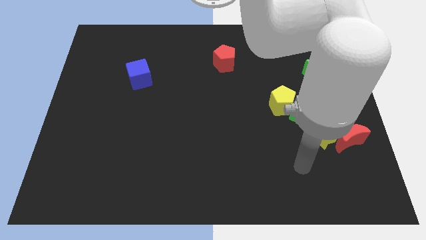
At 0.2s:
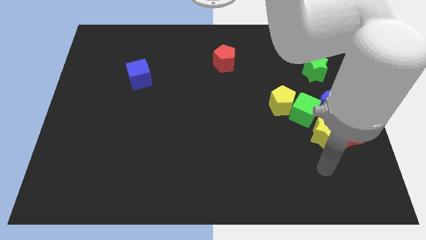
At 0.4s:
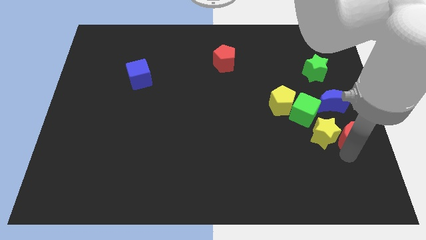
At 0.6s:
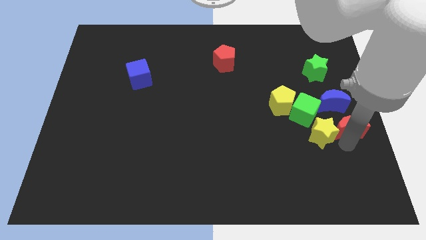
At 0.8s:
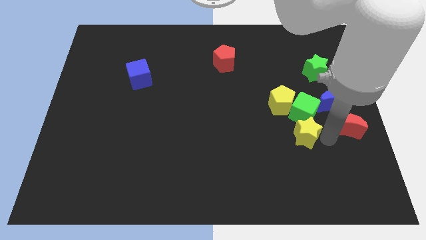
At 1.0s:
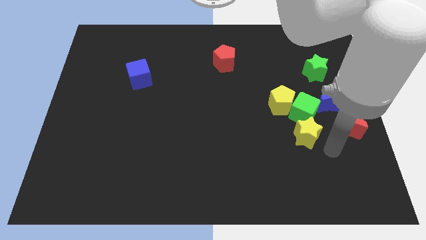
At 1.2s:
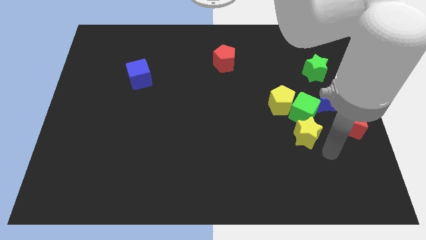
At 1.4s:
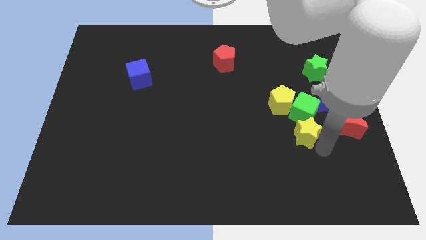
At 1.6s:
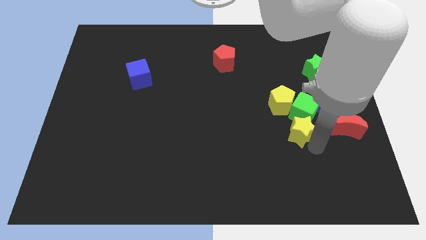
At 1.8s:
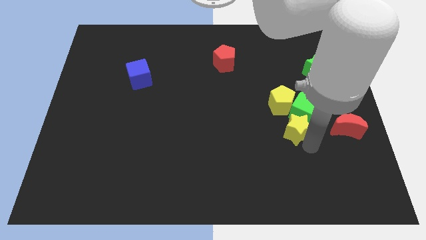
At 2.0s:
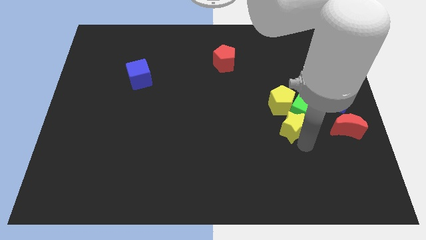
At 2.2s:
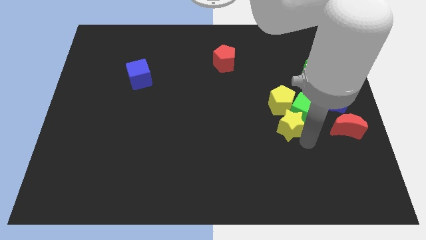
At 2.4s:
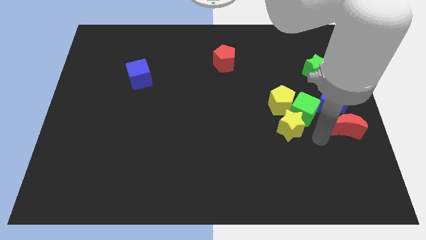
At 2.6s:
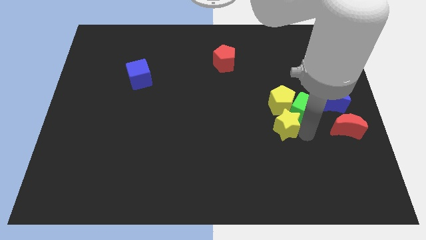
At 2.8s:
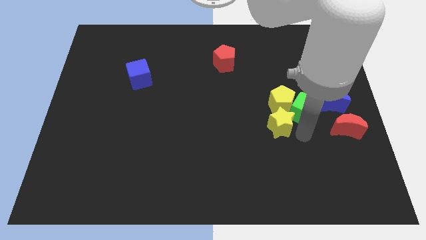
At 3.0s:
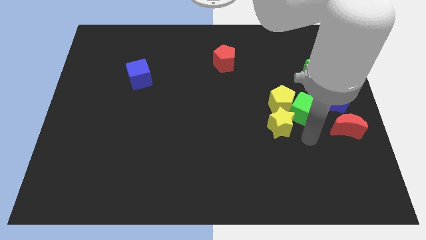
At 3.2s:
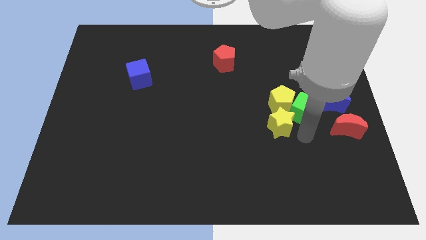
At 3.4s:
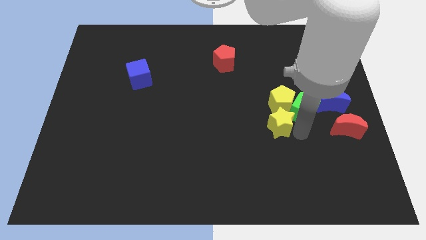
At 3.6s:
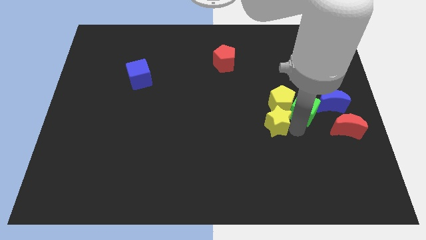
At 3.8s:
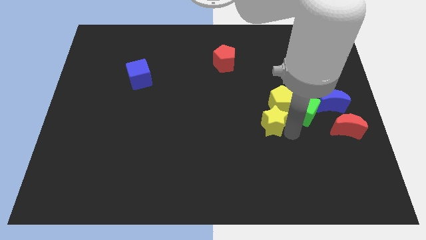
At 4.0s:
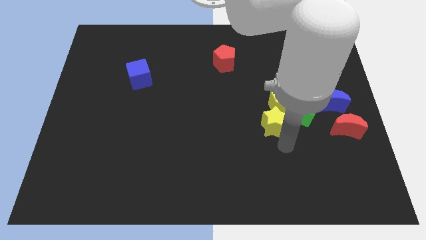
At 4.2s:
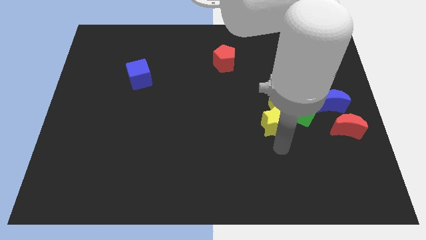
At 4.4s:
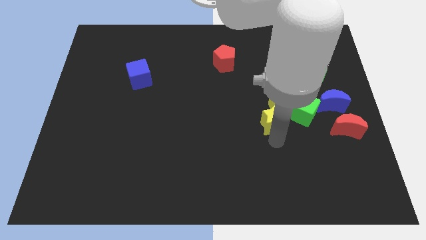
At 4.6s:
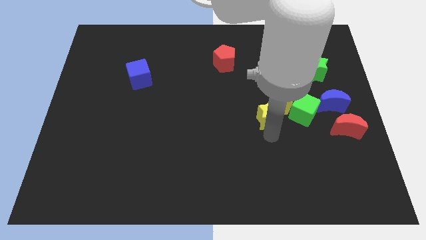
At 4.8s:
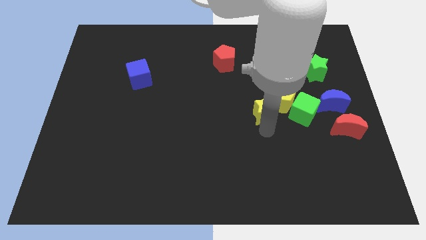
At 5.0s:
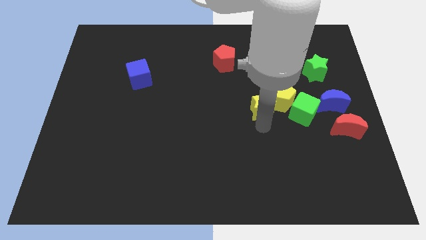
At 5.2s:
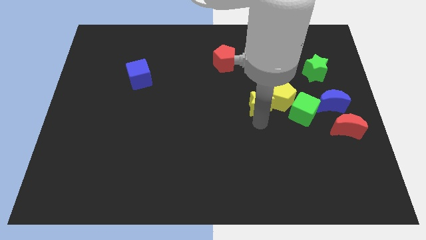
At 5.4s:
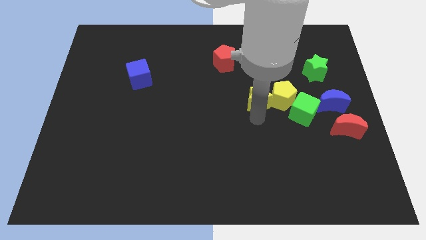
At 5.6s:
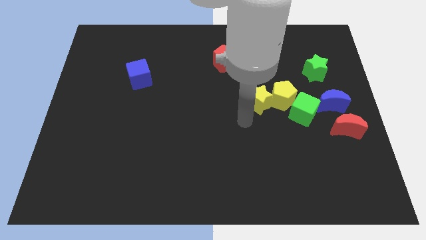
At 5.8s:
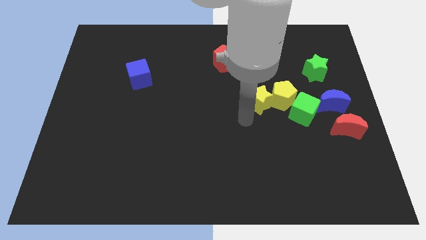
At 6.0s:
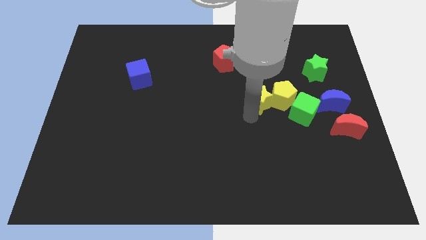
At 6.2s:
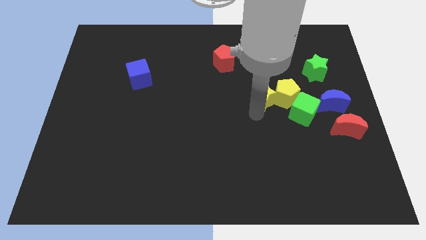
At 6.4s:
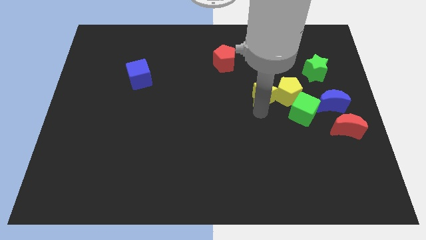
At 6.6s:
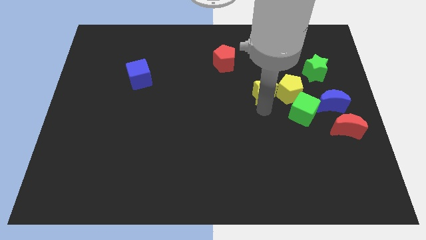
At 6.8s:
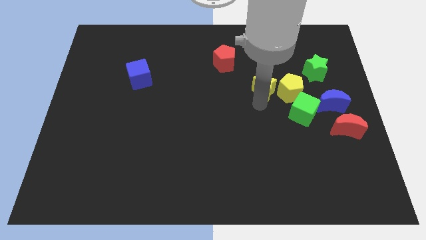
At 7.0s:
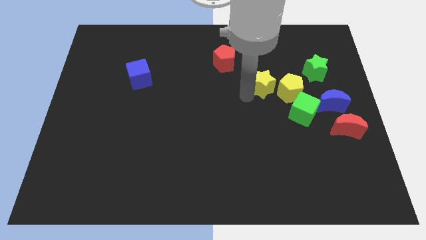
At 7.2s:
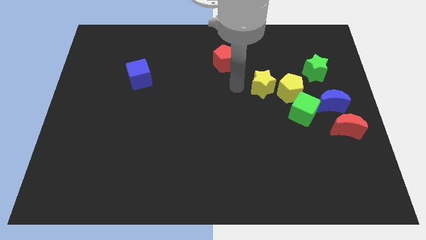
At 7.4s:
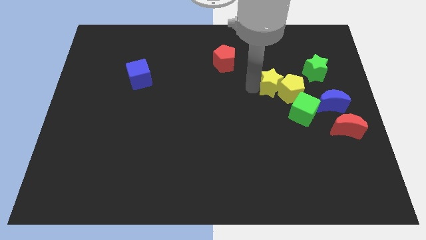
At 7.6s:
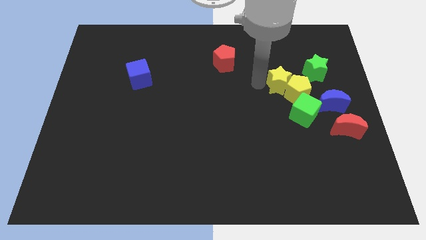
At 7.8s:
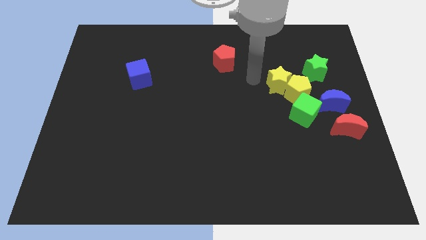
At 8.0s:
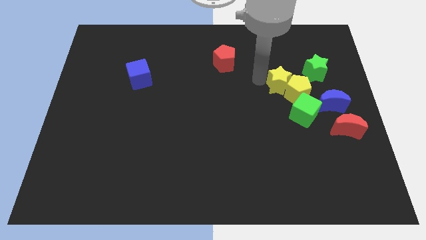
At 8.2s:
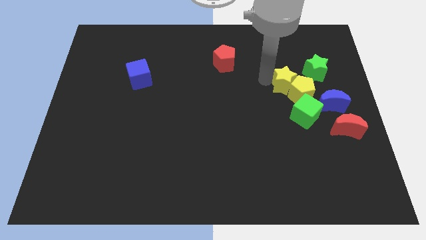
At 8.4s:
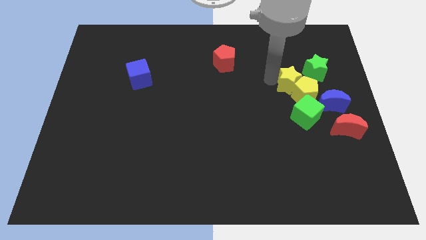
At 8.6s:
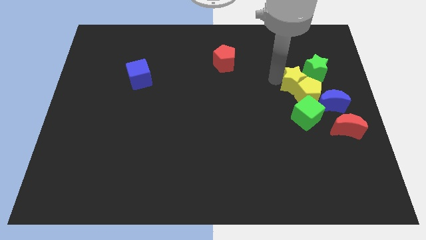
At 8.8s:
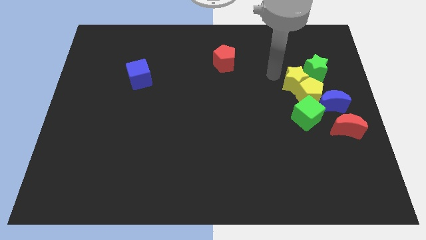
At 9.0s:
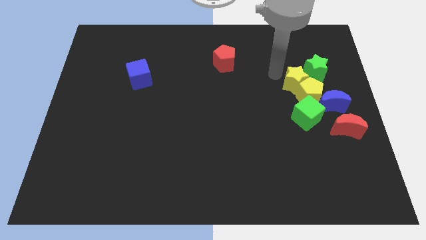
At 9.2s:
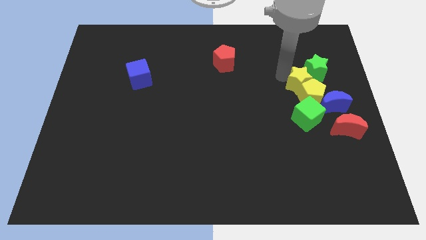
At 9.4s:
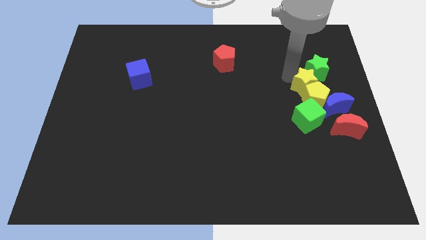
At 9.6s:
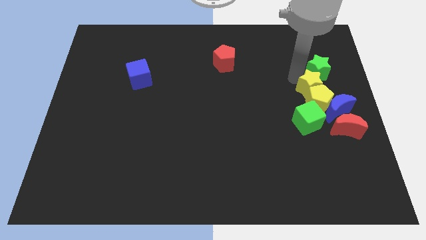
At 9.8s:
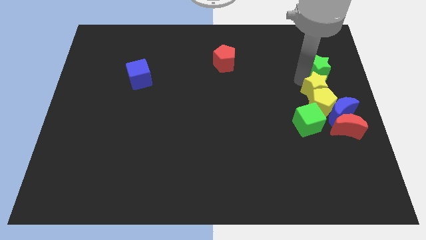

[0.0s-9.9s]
push the yellow star to the top right of the green cube

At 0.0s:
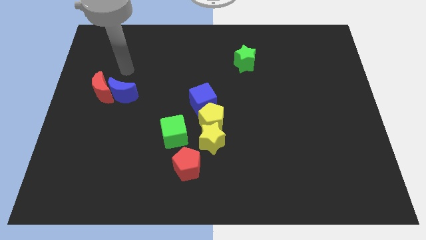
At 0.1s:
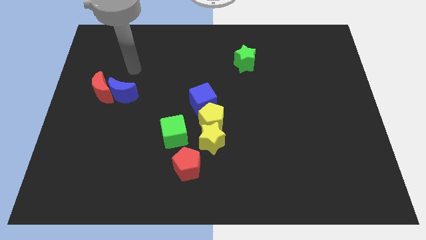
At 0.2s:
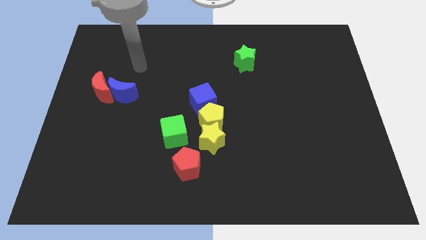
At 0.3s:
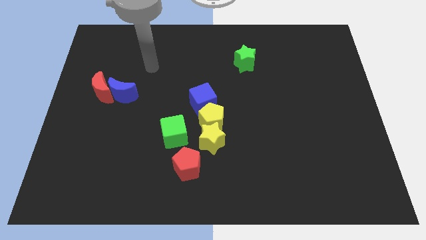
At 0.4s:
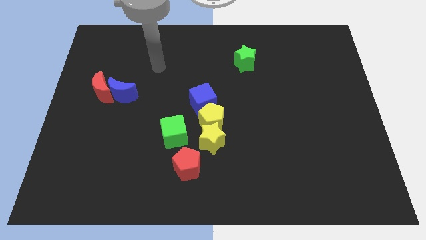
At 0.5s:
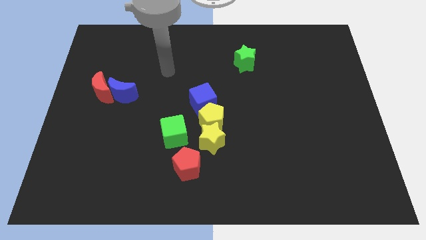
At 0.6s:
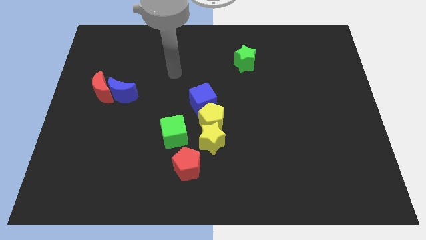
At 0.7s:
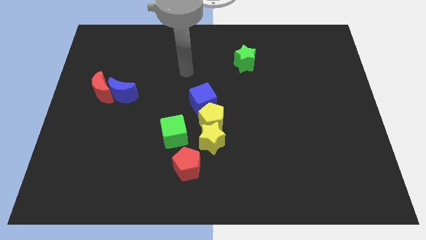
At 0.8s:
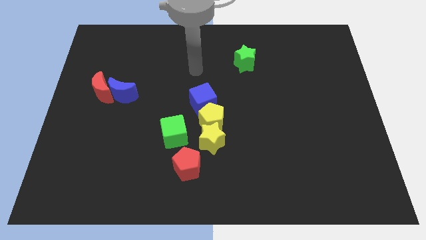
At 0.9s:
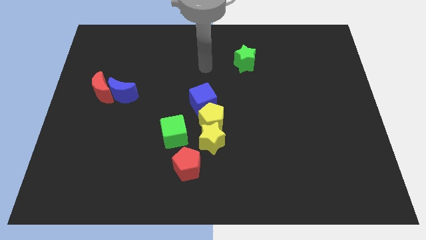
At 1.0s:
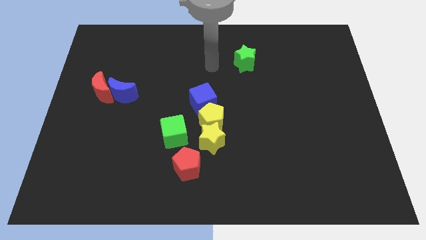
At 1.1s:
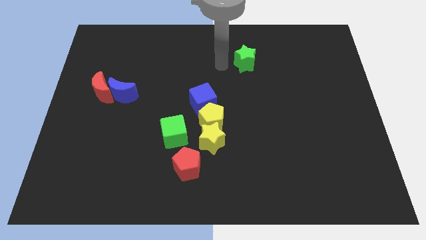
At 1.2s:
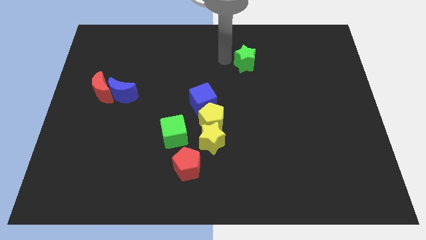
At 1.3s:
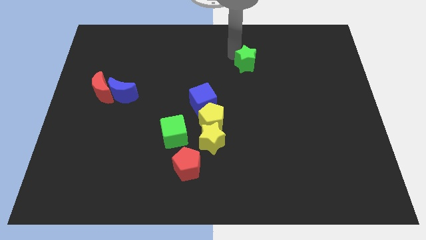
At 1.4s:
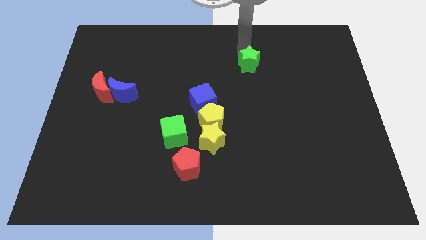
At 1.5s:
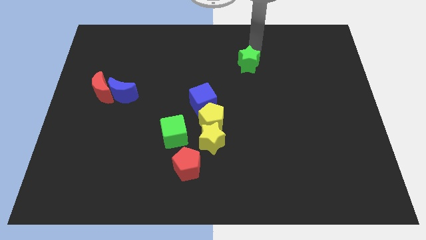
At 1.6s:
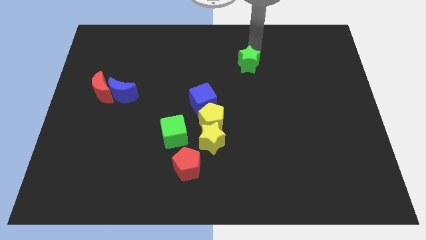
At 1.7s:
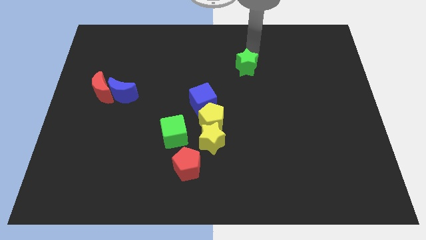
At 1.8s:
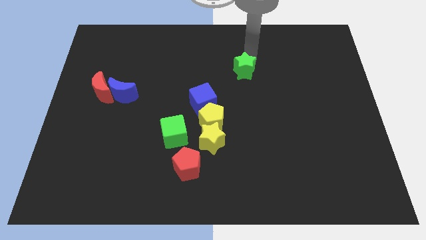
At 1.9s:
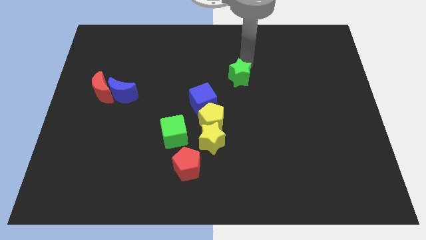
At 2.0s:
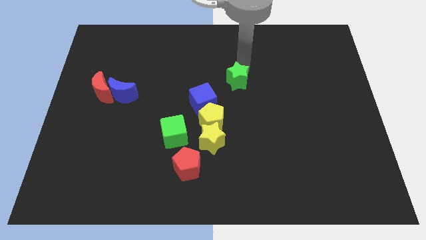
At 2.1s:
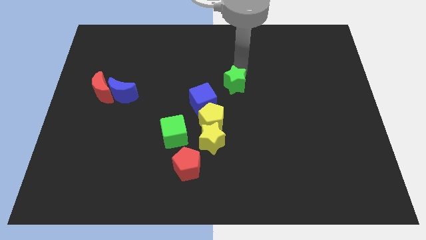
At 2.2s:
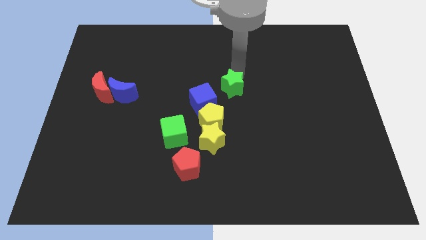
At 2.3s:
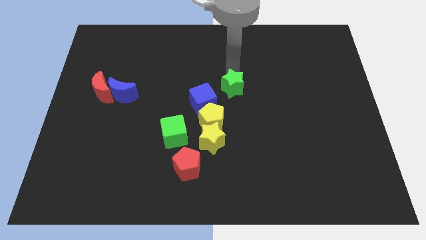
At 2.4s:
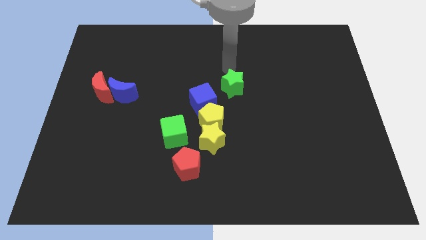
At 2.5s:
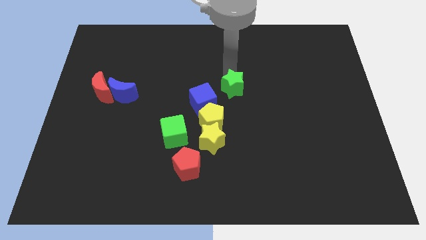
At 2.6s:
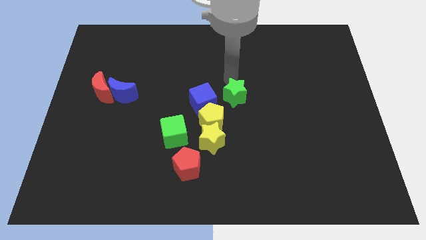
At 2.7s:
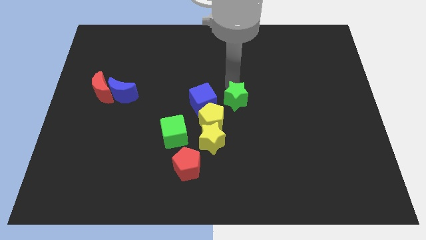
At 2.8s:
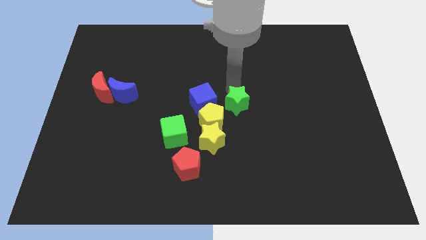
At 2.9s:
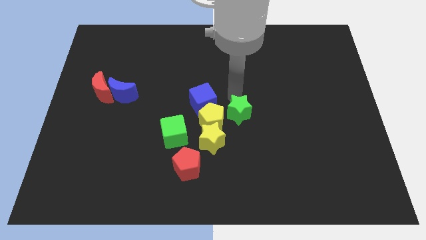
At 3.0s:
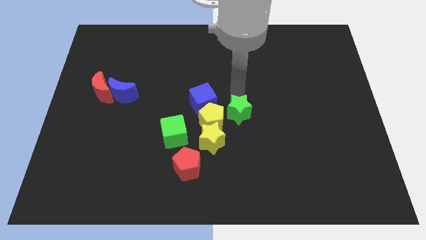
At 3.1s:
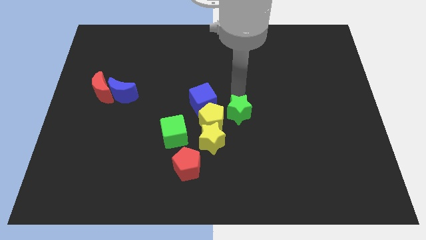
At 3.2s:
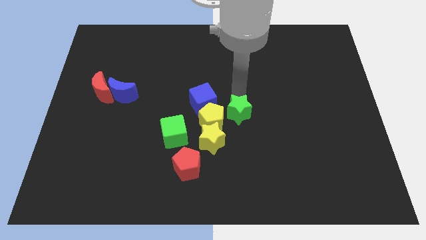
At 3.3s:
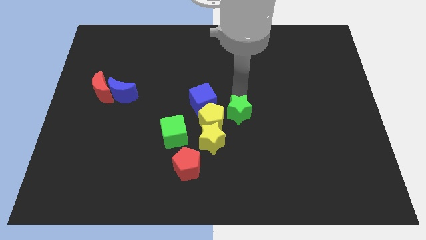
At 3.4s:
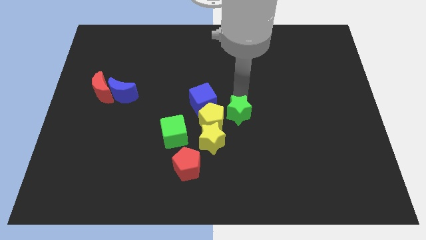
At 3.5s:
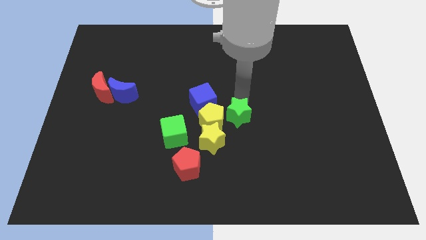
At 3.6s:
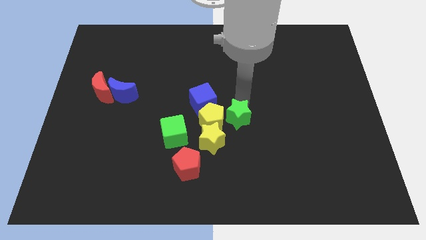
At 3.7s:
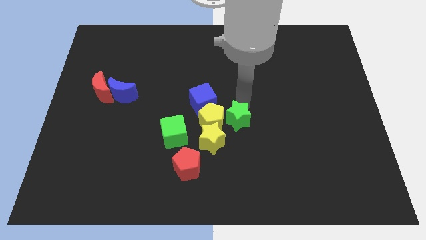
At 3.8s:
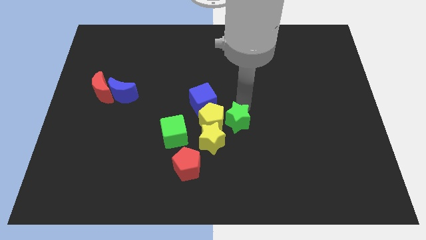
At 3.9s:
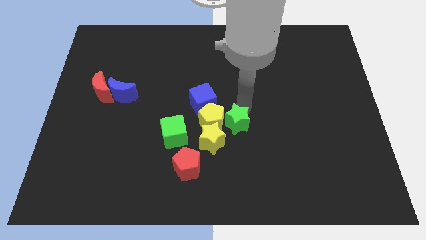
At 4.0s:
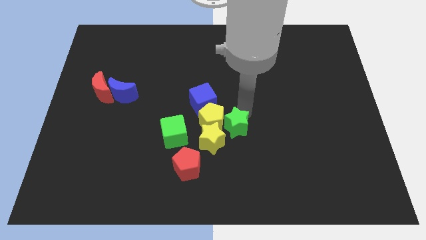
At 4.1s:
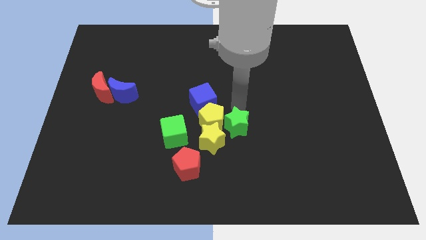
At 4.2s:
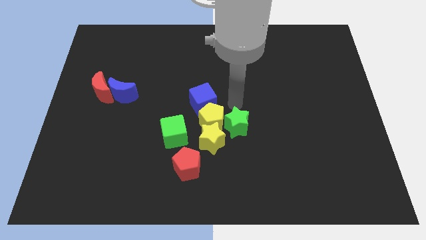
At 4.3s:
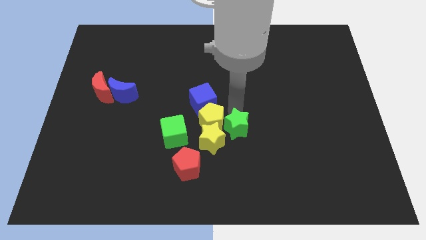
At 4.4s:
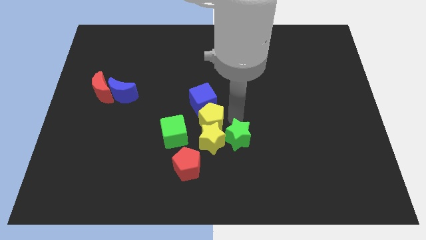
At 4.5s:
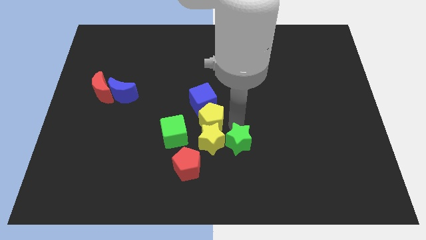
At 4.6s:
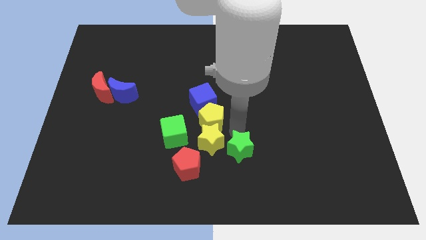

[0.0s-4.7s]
put the green star to the right side of the red pentagon
